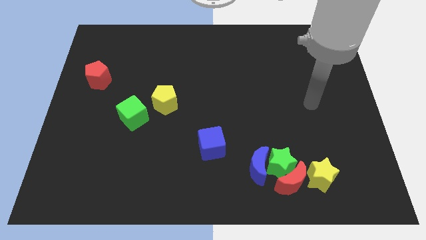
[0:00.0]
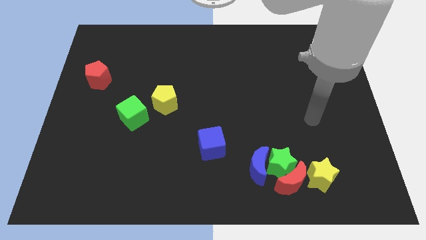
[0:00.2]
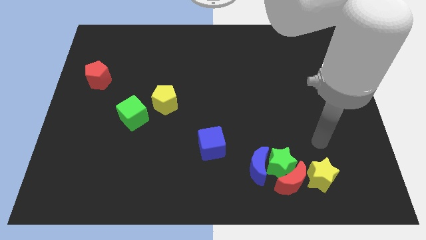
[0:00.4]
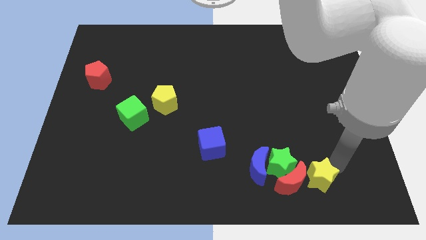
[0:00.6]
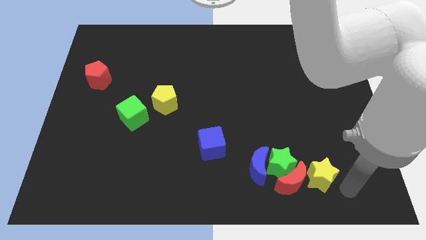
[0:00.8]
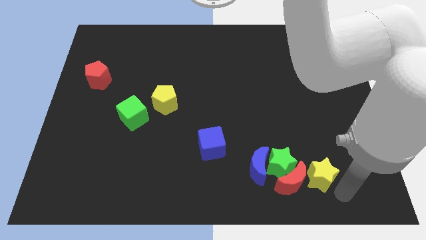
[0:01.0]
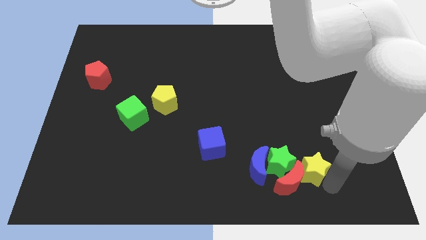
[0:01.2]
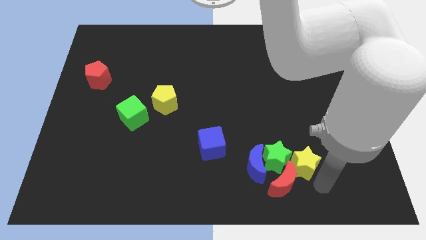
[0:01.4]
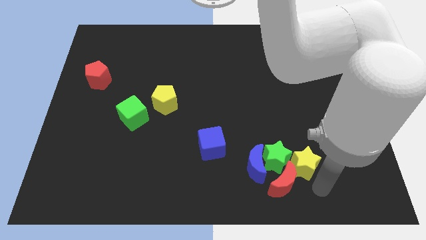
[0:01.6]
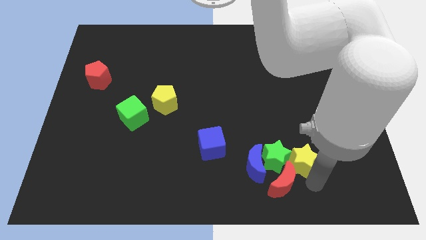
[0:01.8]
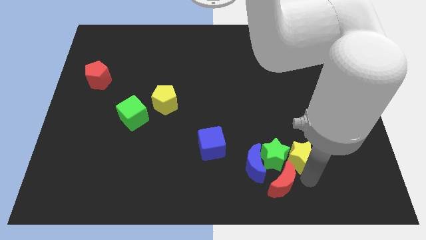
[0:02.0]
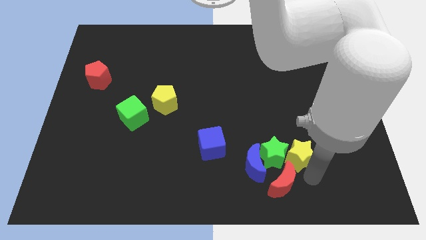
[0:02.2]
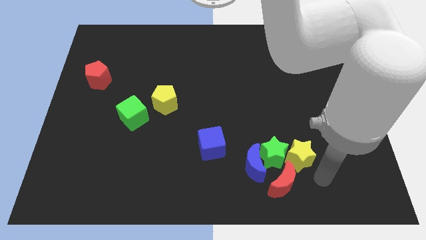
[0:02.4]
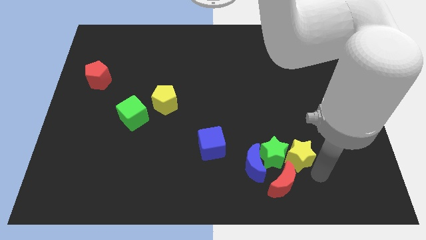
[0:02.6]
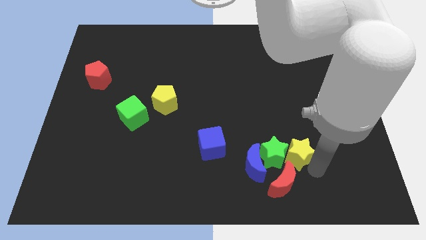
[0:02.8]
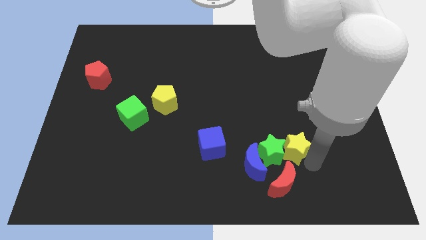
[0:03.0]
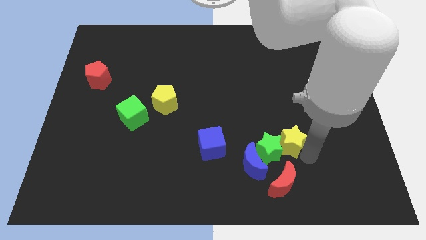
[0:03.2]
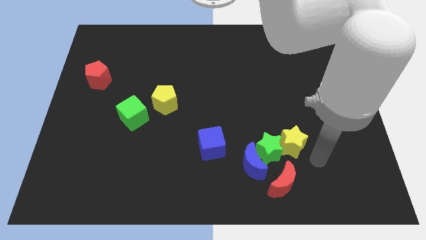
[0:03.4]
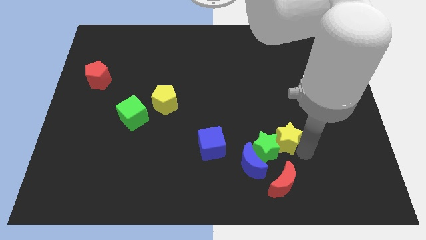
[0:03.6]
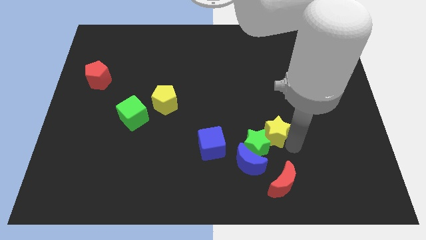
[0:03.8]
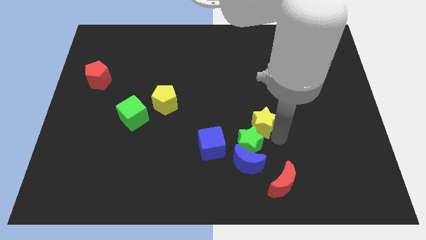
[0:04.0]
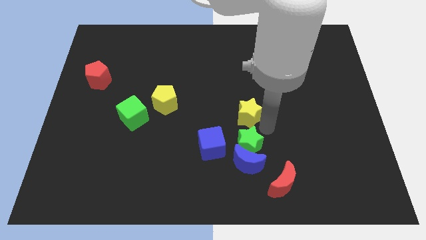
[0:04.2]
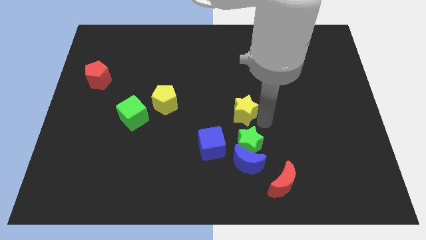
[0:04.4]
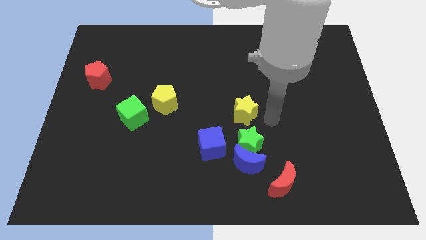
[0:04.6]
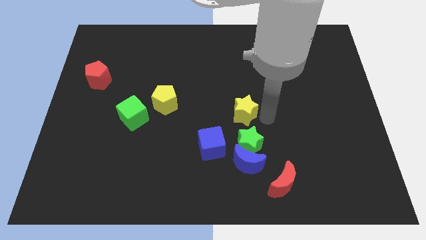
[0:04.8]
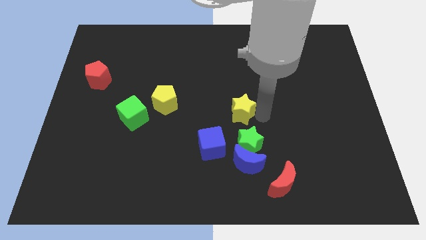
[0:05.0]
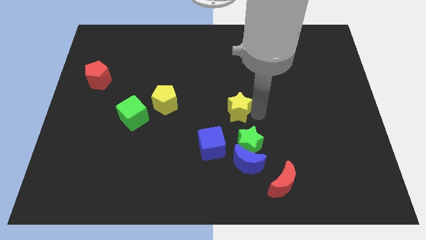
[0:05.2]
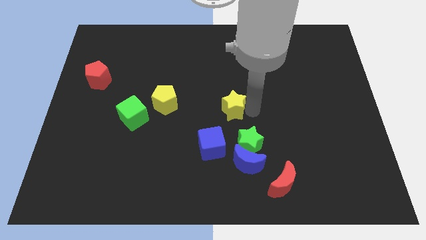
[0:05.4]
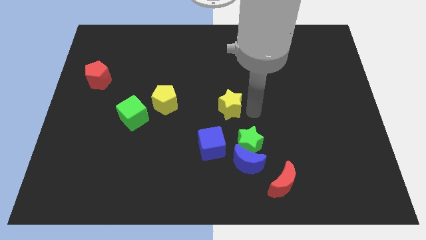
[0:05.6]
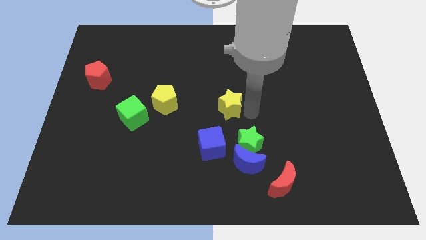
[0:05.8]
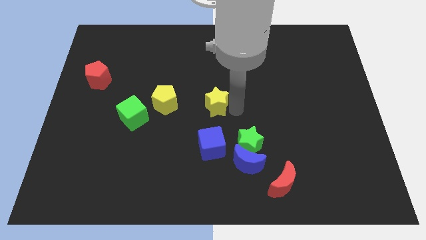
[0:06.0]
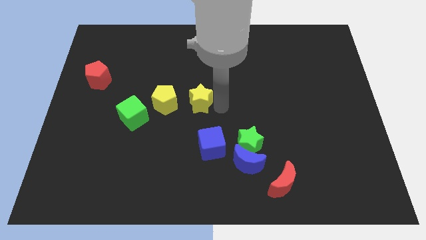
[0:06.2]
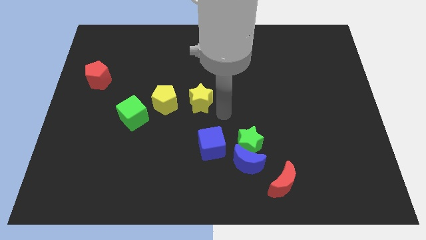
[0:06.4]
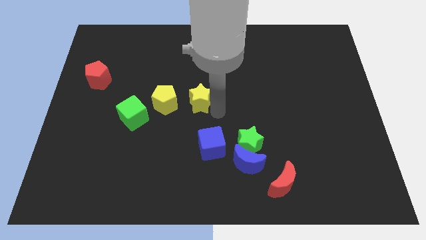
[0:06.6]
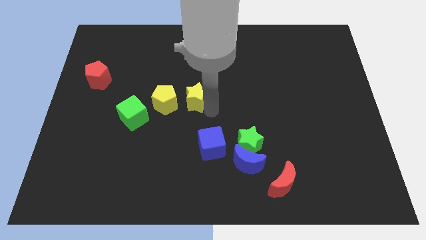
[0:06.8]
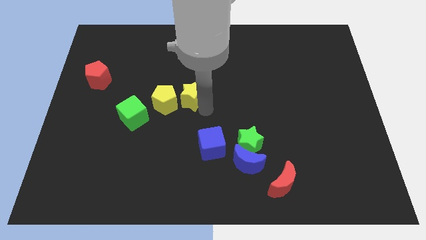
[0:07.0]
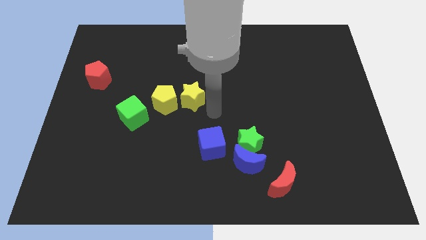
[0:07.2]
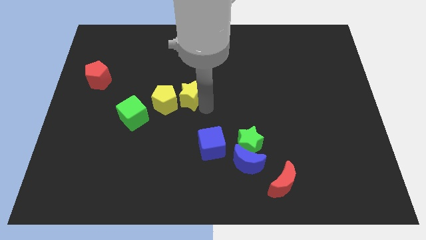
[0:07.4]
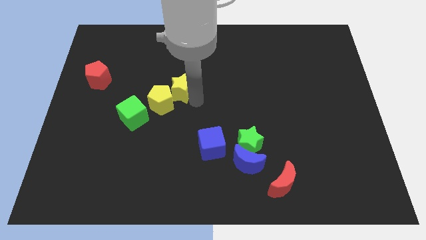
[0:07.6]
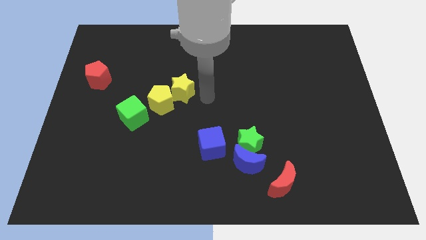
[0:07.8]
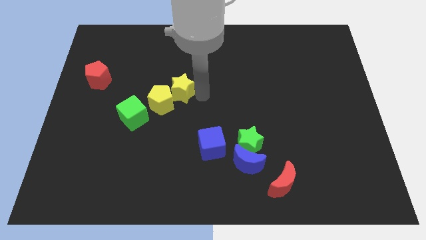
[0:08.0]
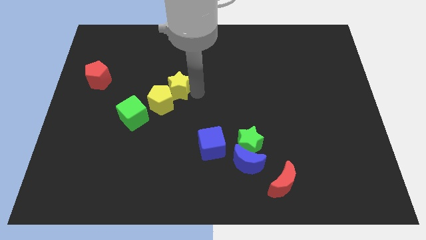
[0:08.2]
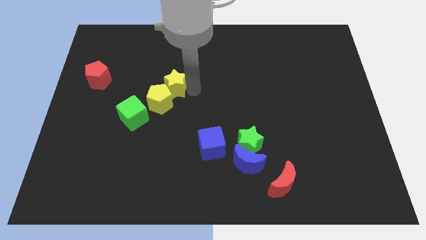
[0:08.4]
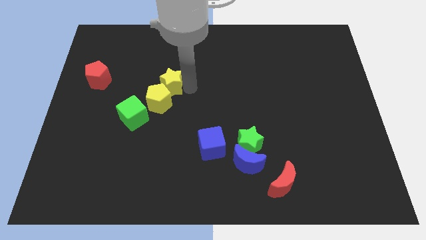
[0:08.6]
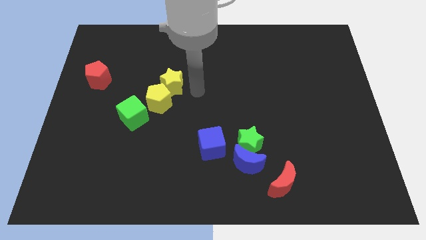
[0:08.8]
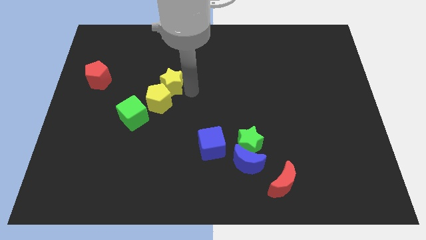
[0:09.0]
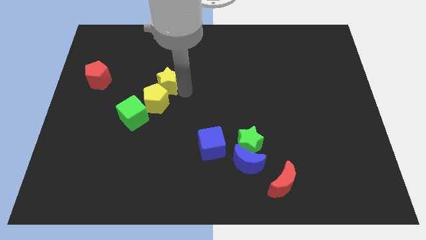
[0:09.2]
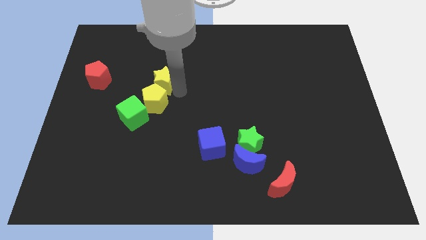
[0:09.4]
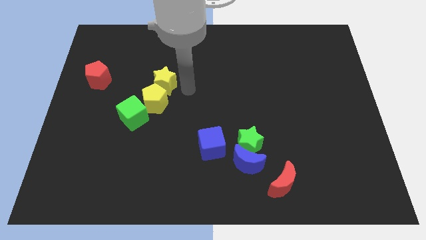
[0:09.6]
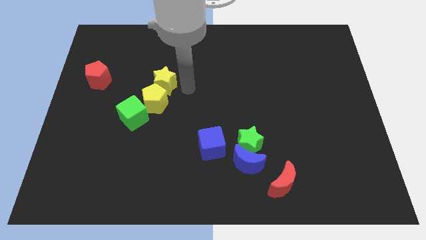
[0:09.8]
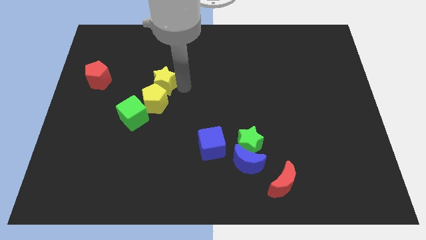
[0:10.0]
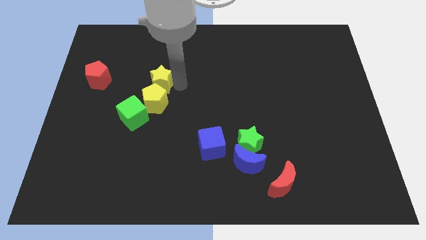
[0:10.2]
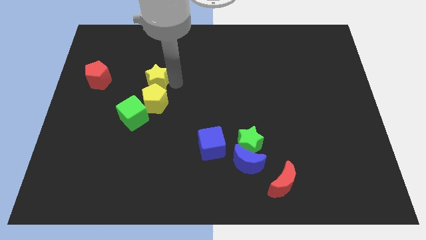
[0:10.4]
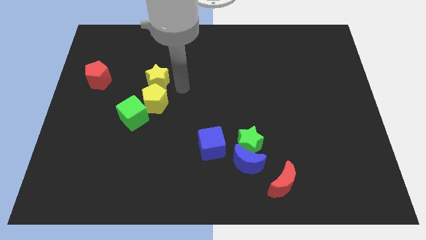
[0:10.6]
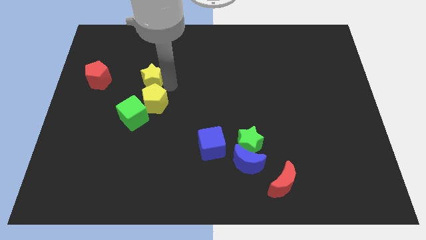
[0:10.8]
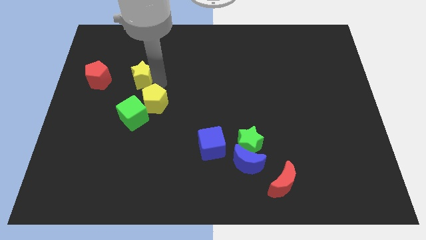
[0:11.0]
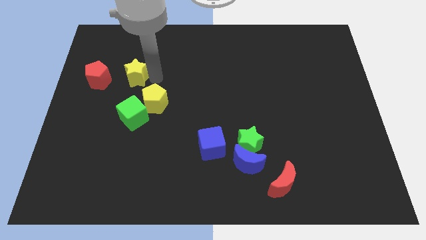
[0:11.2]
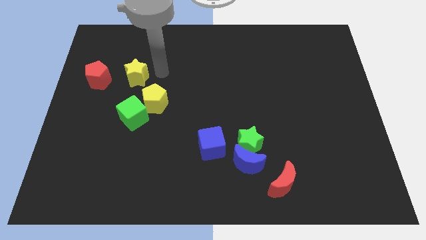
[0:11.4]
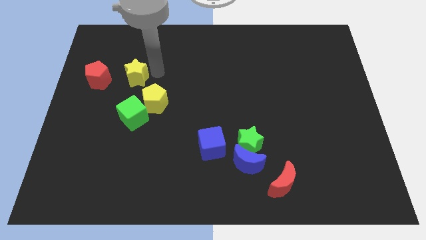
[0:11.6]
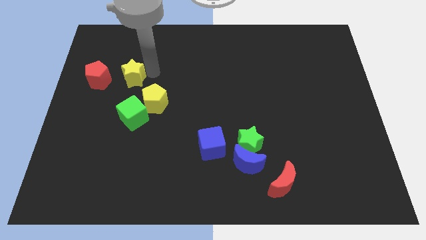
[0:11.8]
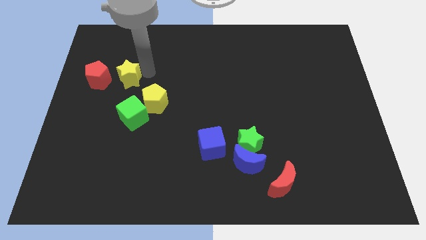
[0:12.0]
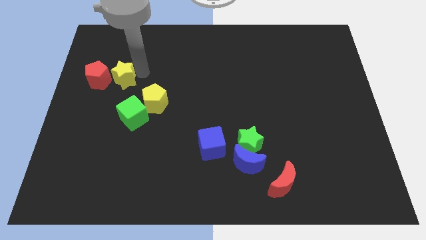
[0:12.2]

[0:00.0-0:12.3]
put the yellow star to the red pentagon

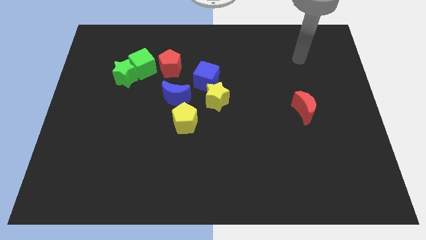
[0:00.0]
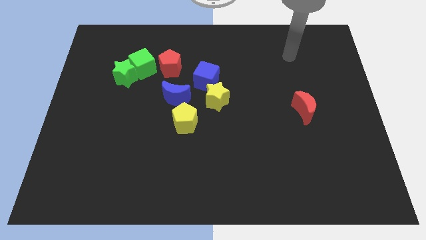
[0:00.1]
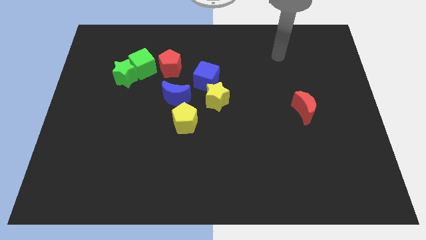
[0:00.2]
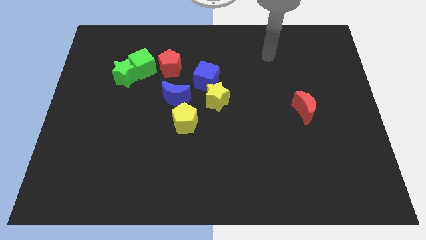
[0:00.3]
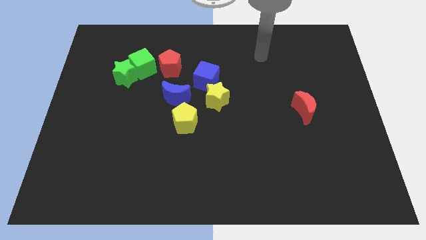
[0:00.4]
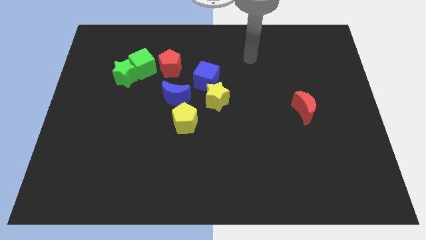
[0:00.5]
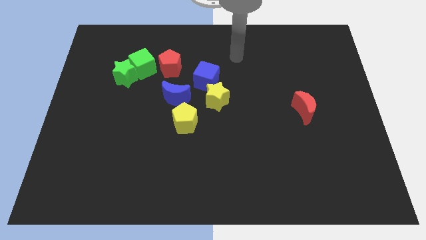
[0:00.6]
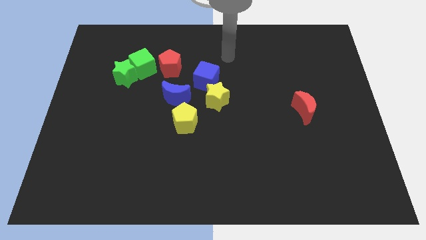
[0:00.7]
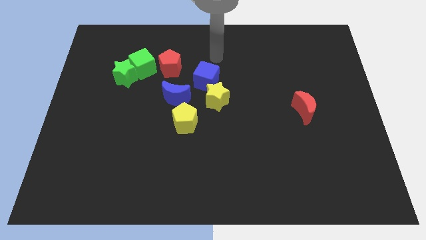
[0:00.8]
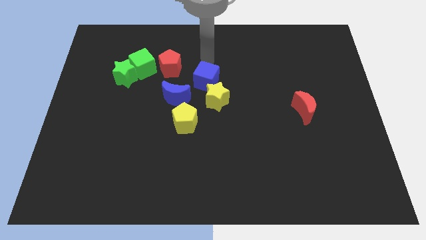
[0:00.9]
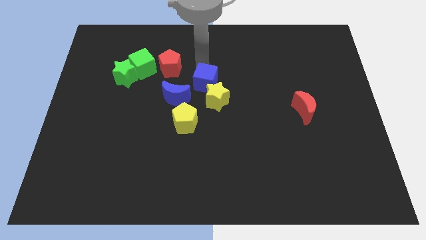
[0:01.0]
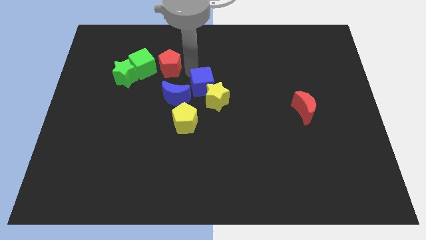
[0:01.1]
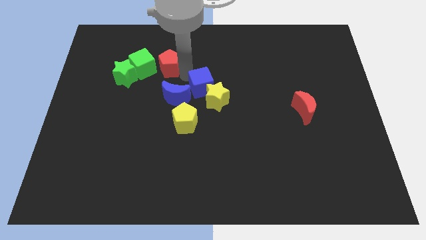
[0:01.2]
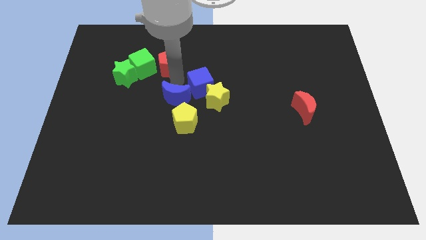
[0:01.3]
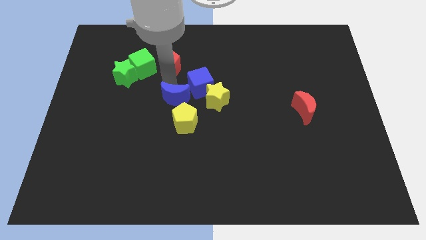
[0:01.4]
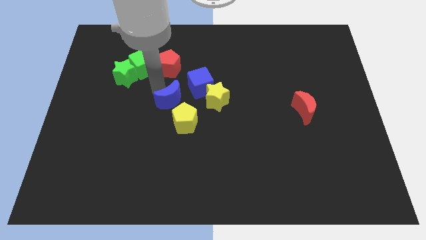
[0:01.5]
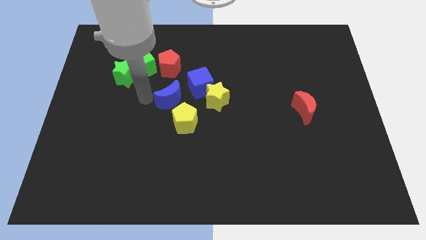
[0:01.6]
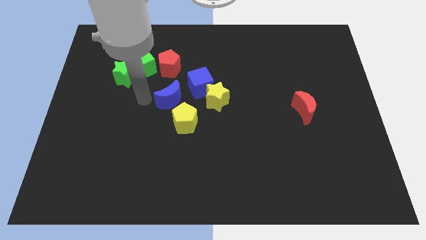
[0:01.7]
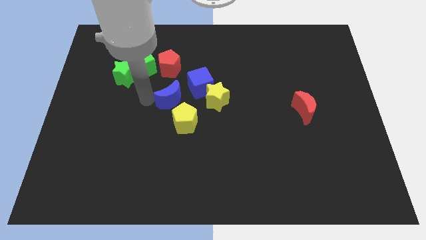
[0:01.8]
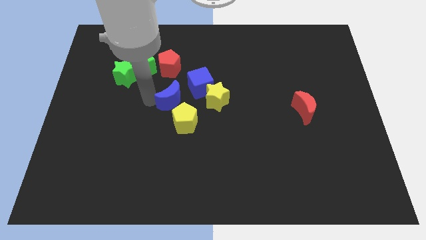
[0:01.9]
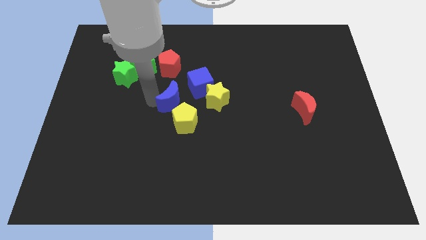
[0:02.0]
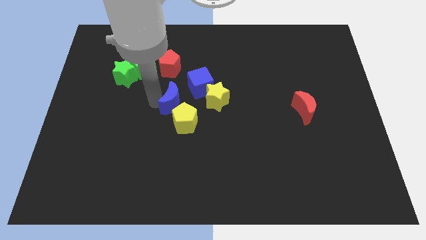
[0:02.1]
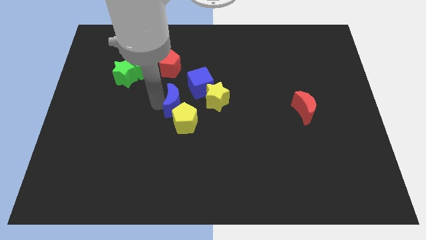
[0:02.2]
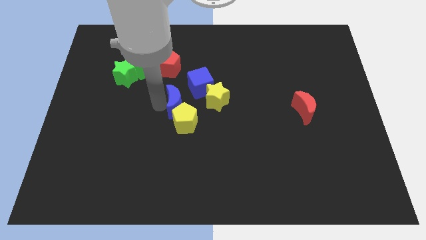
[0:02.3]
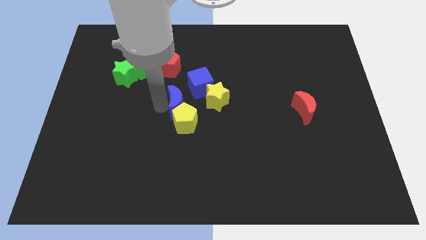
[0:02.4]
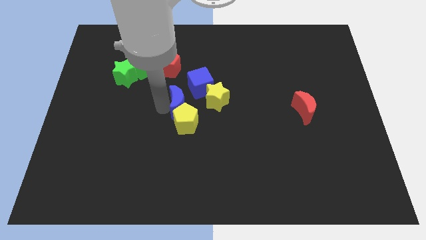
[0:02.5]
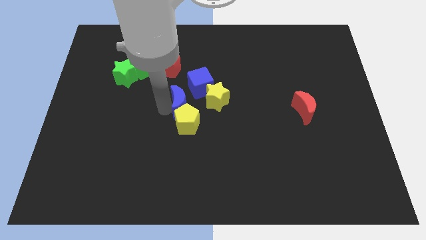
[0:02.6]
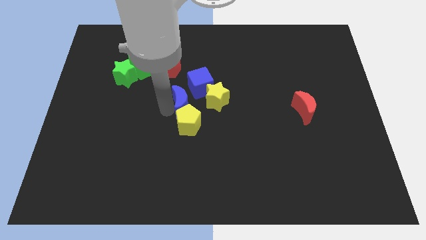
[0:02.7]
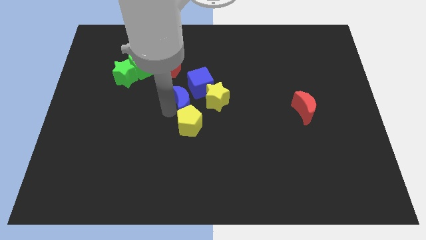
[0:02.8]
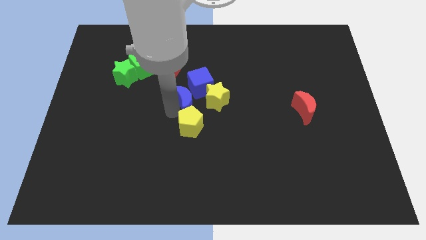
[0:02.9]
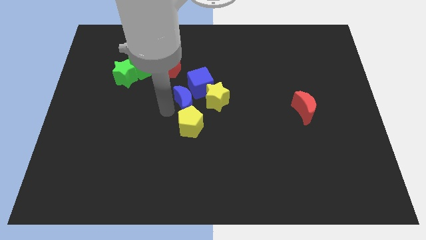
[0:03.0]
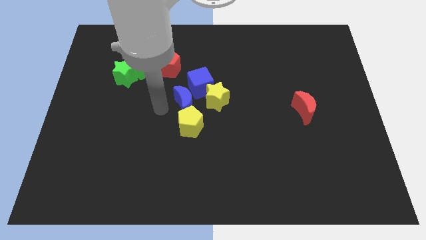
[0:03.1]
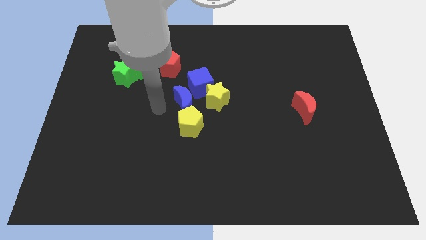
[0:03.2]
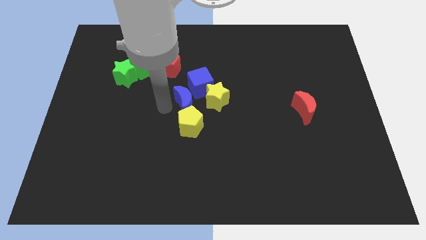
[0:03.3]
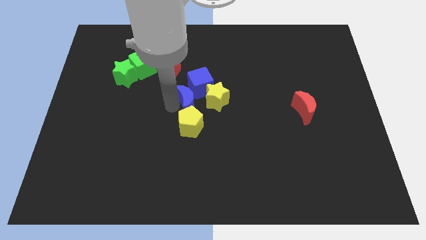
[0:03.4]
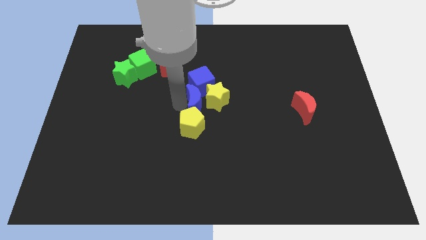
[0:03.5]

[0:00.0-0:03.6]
move the blue moon close to the yellow star
